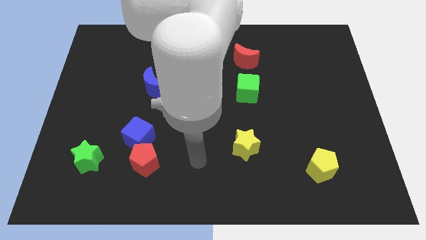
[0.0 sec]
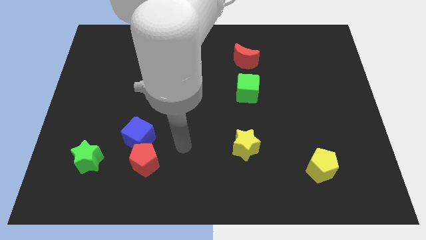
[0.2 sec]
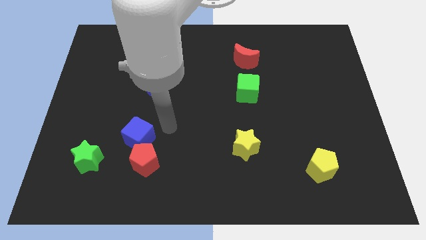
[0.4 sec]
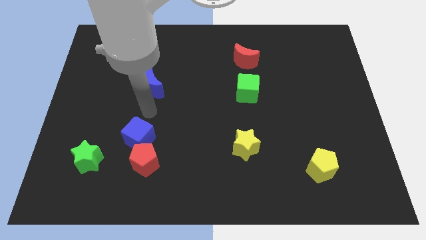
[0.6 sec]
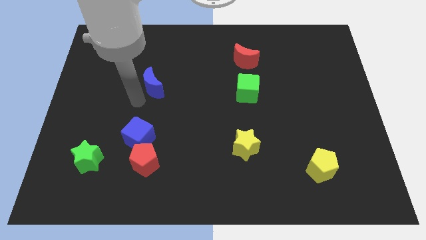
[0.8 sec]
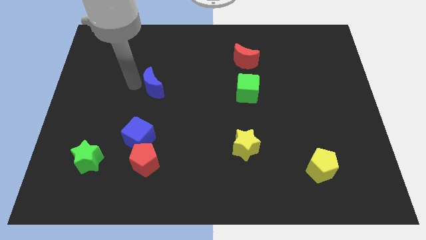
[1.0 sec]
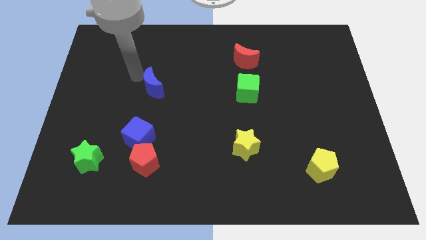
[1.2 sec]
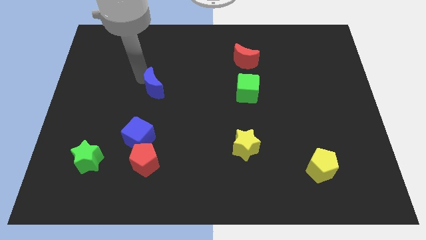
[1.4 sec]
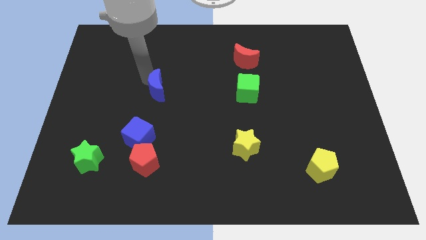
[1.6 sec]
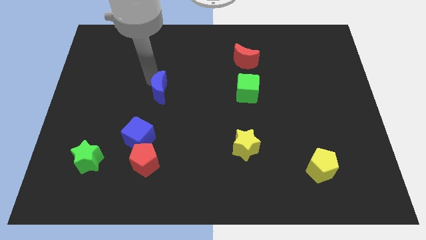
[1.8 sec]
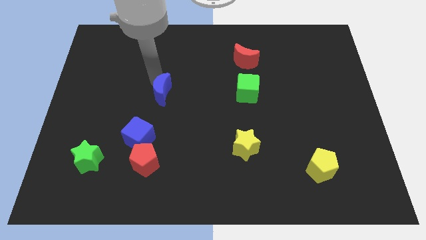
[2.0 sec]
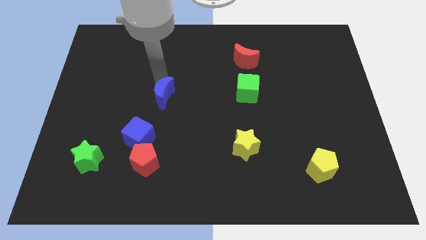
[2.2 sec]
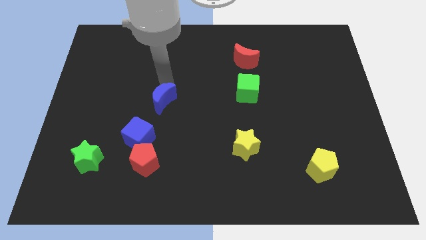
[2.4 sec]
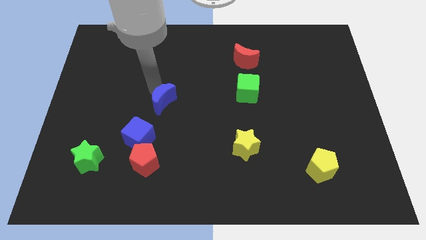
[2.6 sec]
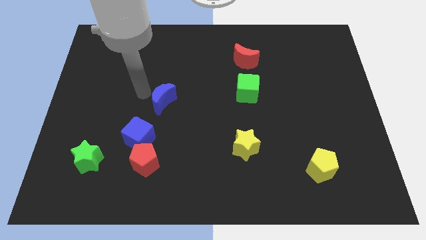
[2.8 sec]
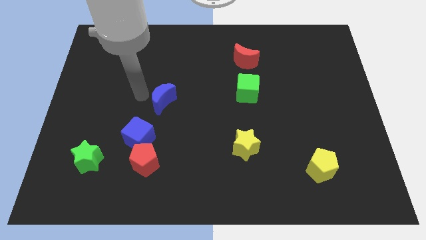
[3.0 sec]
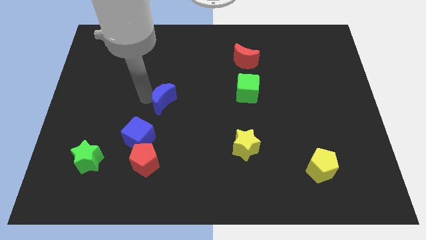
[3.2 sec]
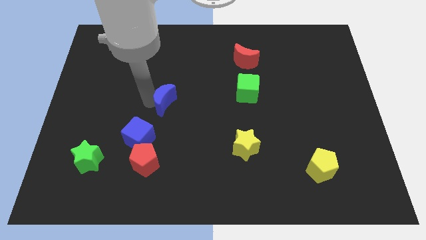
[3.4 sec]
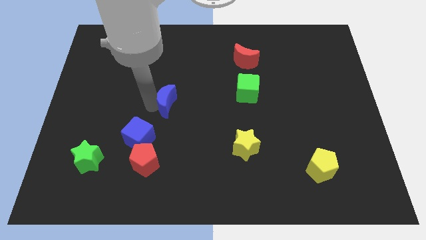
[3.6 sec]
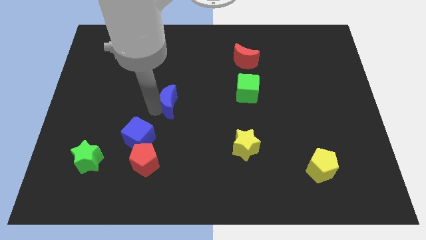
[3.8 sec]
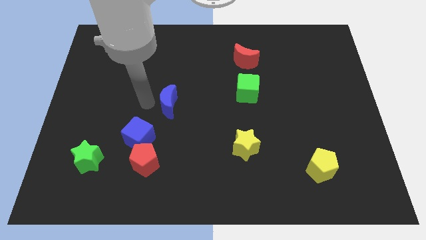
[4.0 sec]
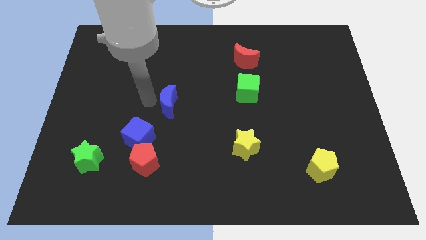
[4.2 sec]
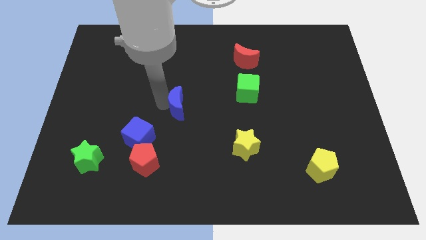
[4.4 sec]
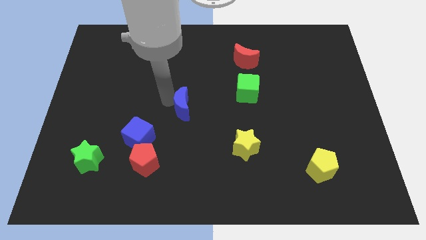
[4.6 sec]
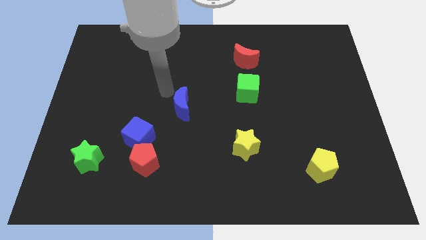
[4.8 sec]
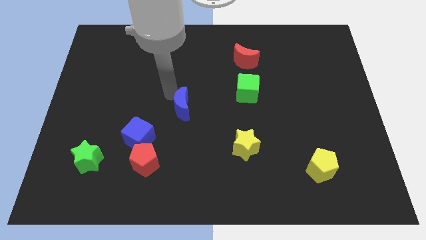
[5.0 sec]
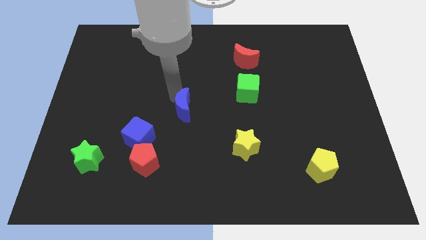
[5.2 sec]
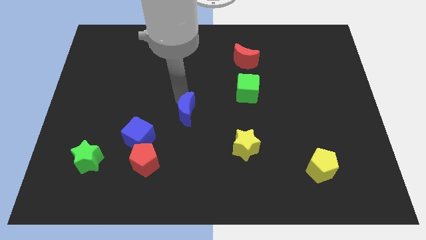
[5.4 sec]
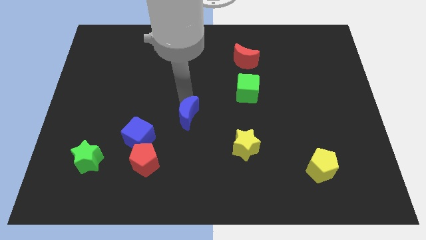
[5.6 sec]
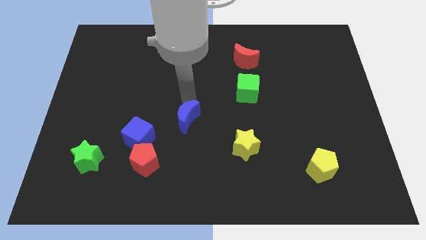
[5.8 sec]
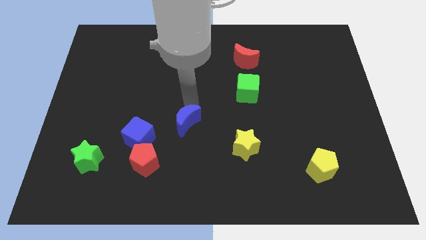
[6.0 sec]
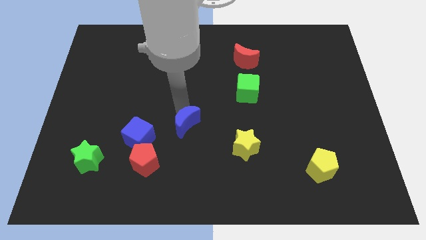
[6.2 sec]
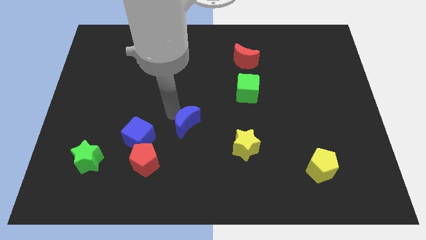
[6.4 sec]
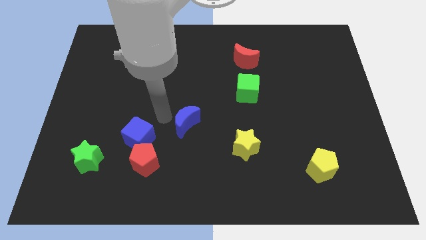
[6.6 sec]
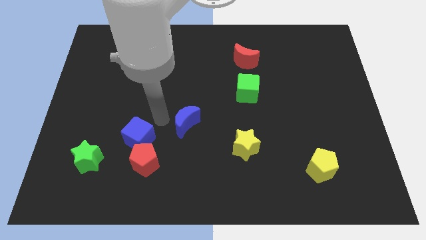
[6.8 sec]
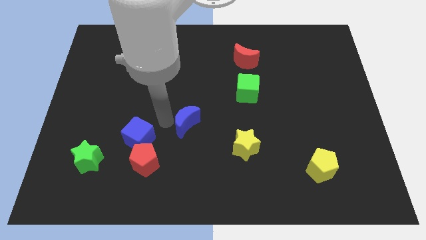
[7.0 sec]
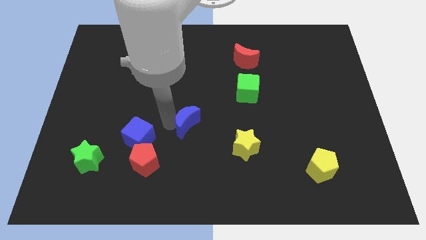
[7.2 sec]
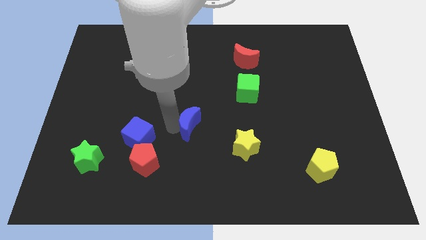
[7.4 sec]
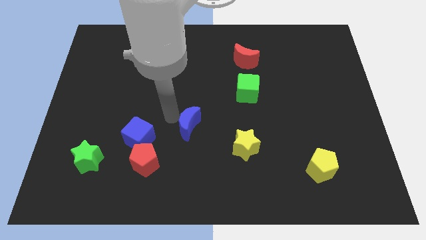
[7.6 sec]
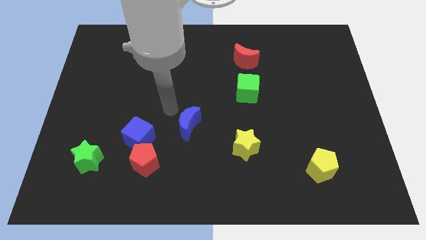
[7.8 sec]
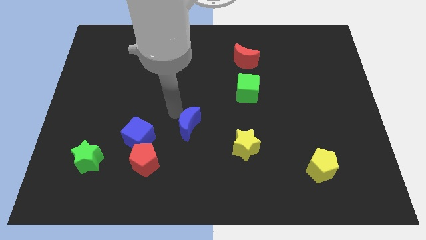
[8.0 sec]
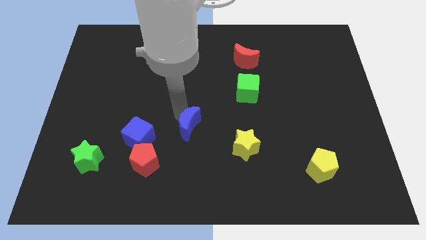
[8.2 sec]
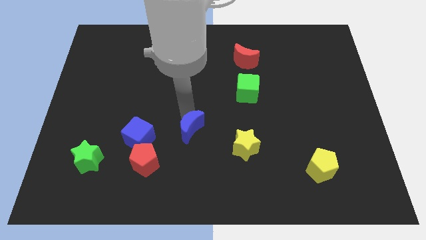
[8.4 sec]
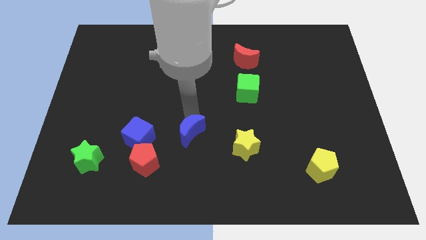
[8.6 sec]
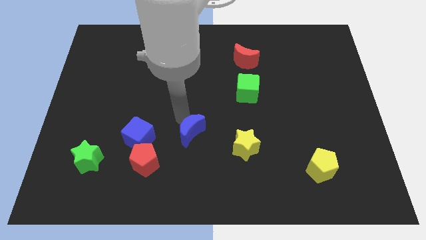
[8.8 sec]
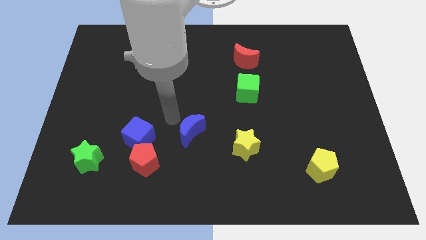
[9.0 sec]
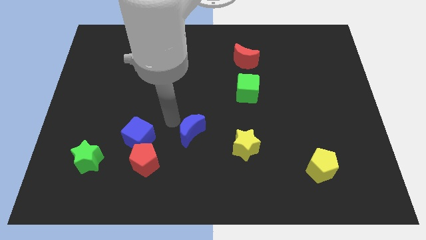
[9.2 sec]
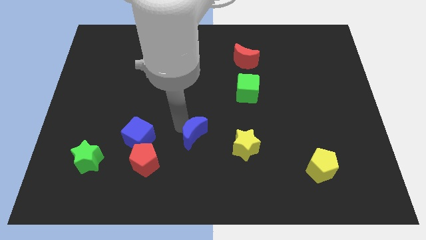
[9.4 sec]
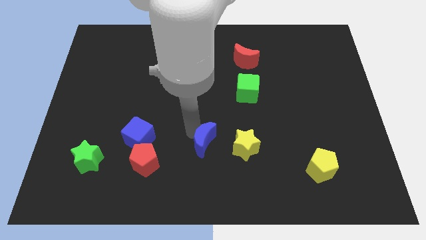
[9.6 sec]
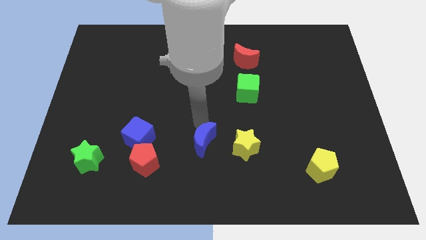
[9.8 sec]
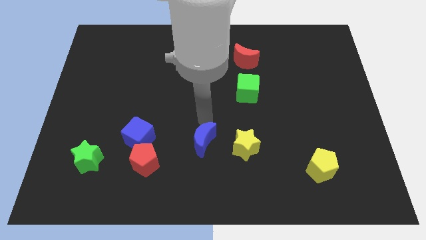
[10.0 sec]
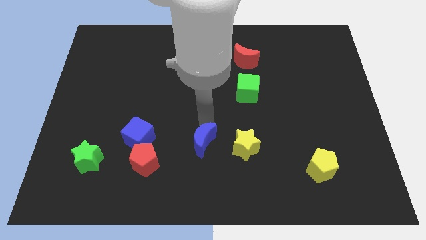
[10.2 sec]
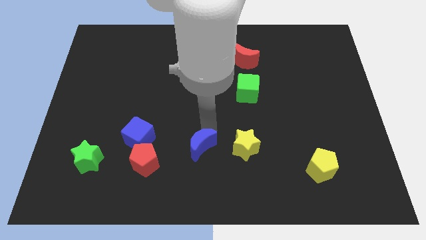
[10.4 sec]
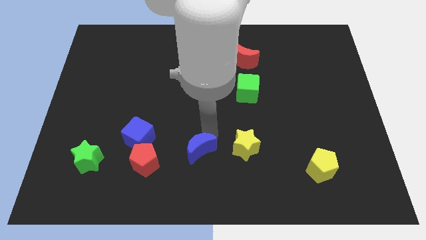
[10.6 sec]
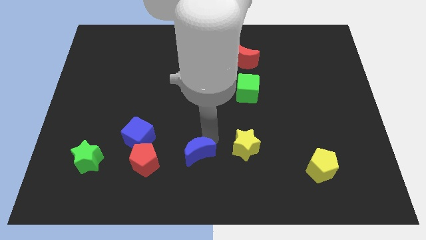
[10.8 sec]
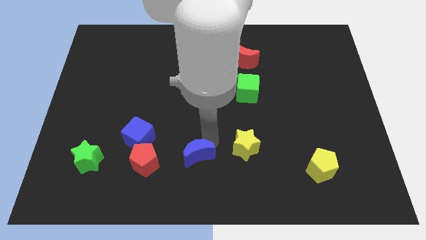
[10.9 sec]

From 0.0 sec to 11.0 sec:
slide the blue moon to the bottom

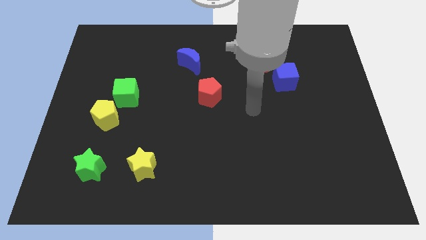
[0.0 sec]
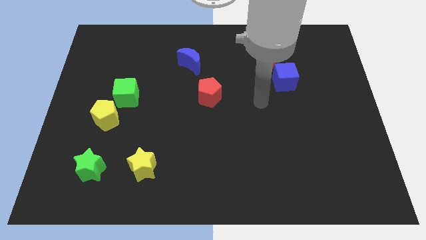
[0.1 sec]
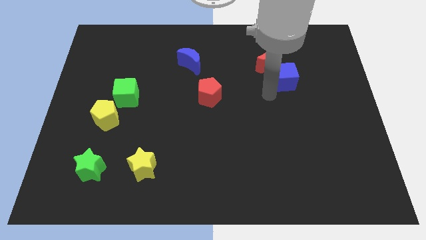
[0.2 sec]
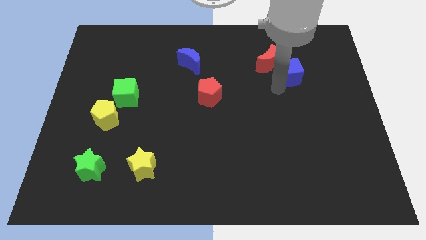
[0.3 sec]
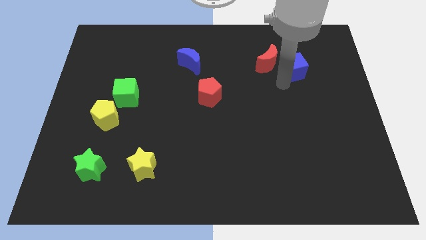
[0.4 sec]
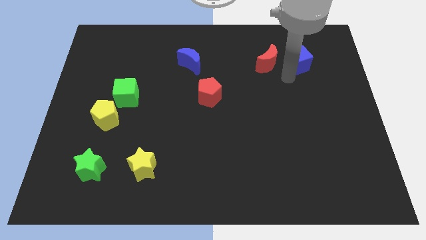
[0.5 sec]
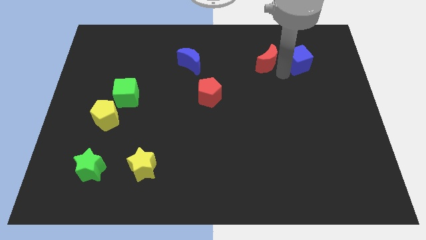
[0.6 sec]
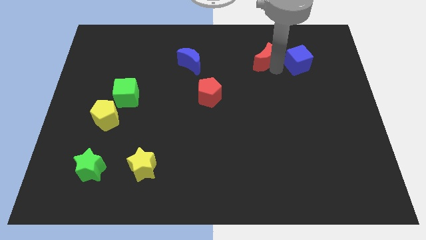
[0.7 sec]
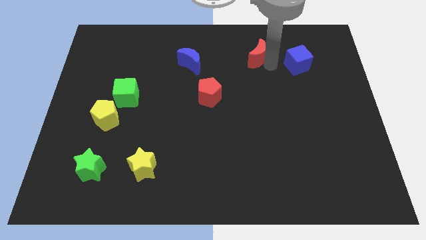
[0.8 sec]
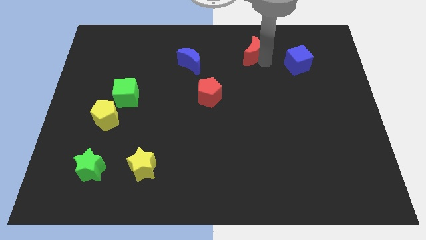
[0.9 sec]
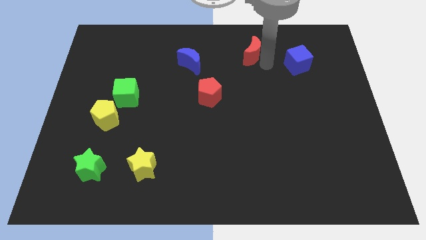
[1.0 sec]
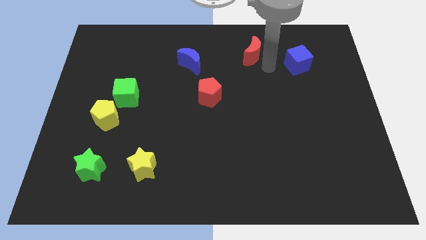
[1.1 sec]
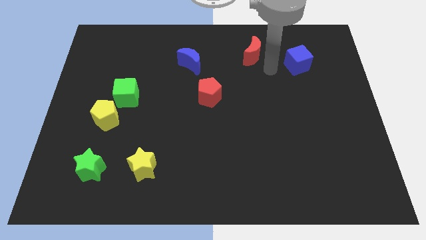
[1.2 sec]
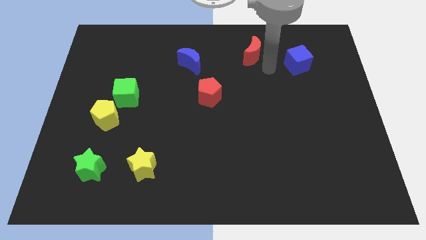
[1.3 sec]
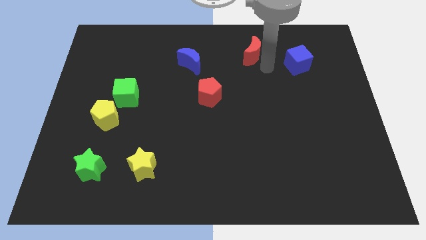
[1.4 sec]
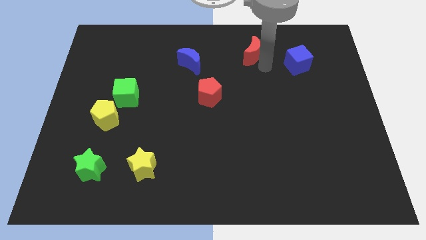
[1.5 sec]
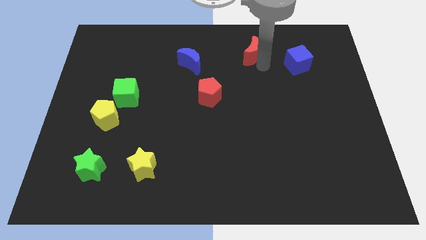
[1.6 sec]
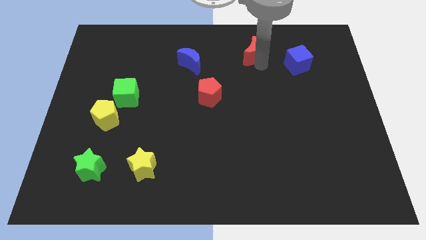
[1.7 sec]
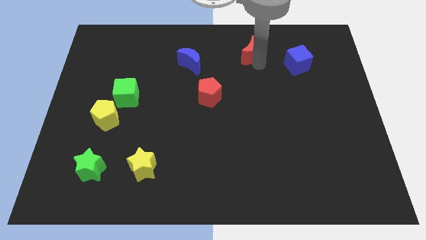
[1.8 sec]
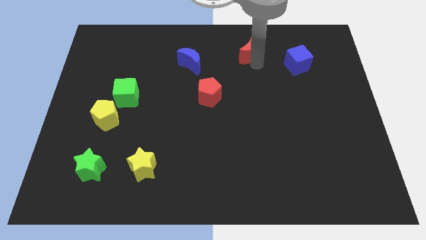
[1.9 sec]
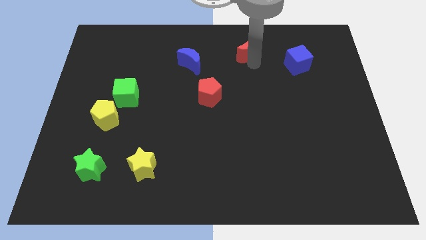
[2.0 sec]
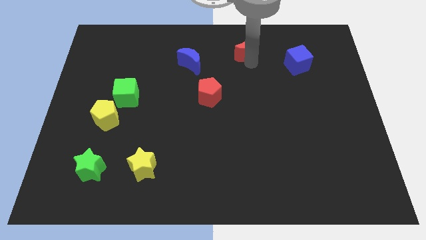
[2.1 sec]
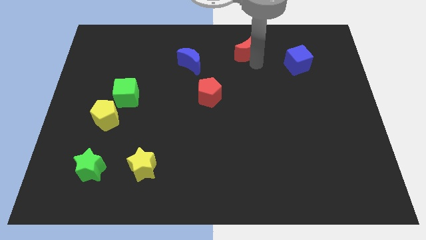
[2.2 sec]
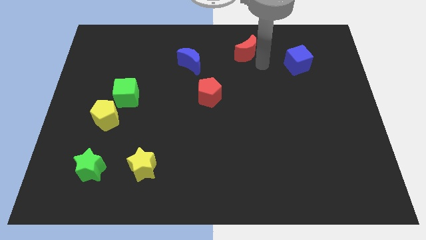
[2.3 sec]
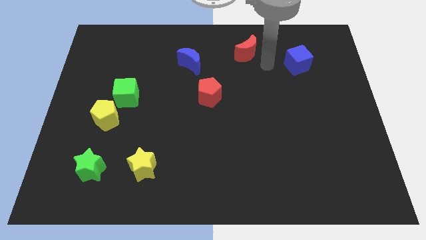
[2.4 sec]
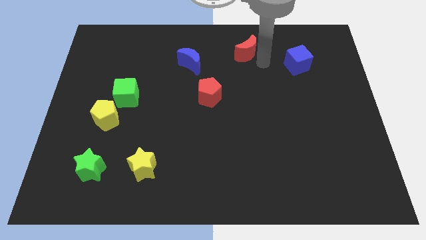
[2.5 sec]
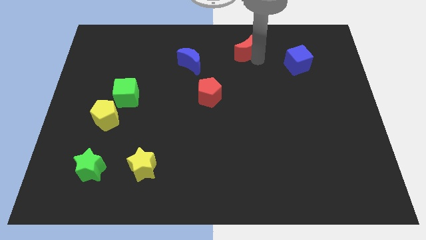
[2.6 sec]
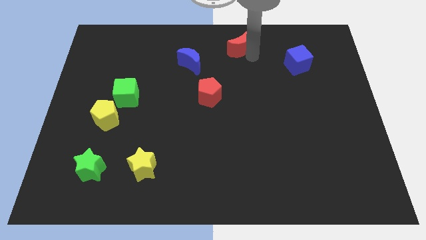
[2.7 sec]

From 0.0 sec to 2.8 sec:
move the red moon to the towards your base
